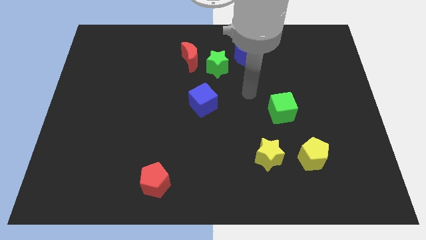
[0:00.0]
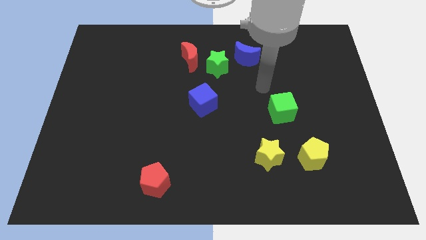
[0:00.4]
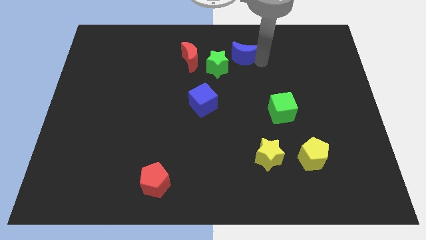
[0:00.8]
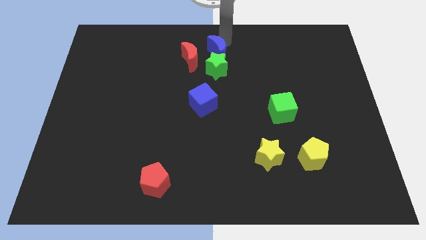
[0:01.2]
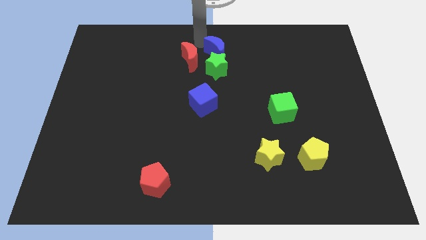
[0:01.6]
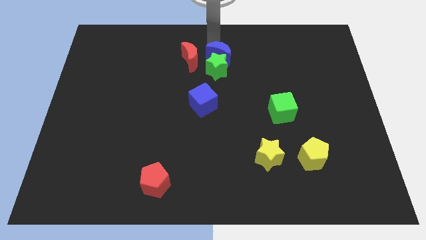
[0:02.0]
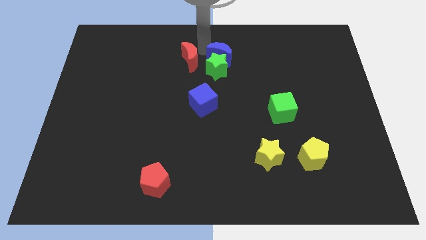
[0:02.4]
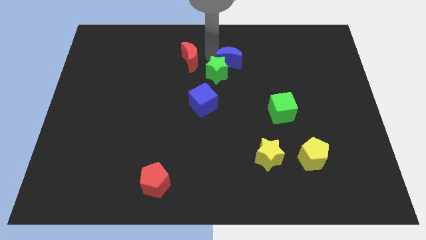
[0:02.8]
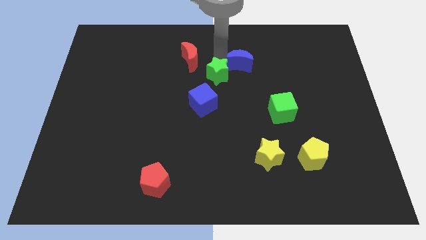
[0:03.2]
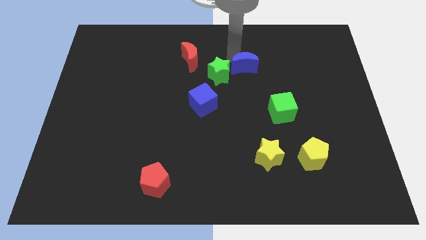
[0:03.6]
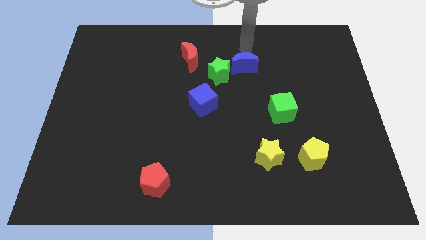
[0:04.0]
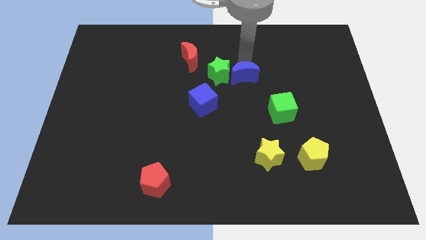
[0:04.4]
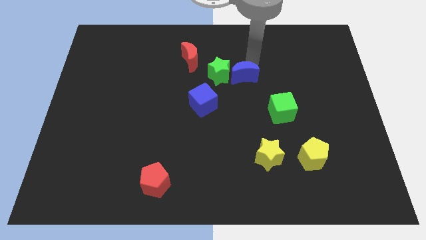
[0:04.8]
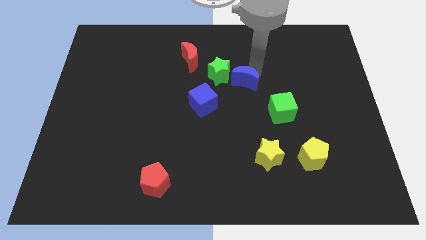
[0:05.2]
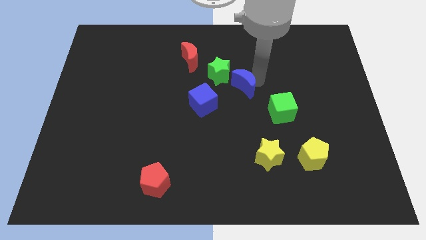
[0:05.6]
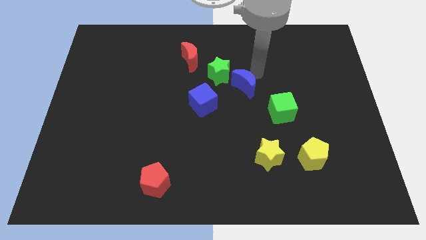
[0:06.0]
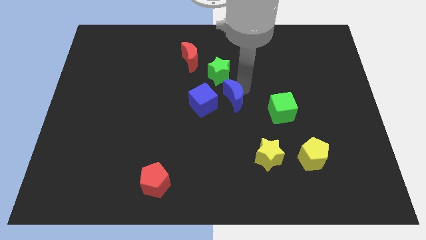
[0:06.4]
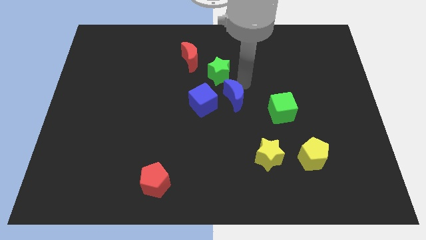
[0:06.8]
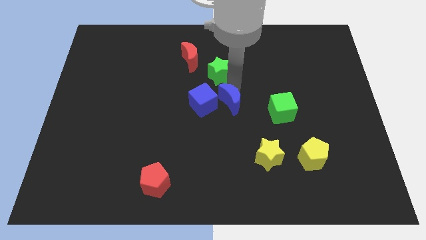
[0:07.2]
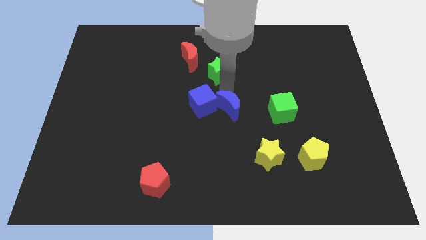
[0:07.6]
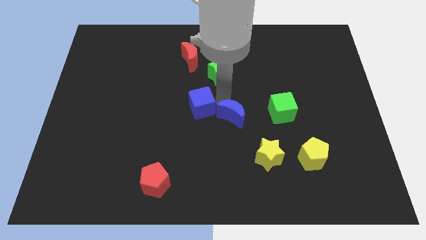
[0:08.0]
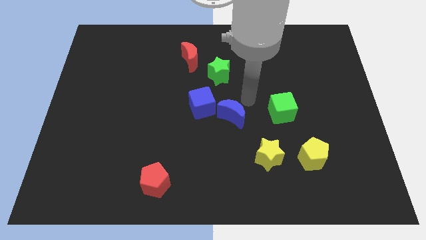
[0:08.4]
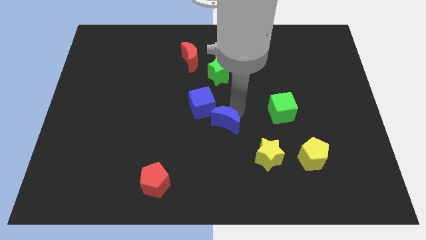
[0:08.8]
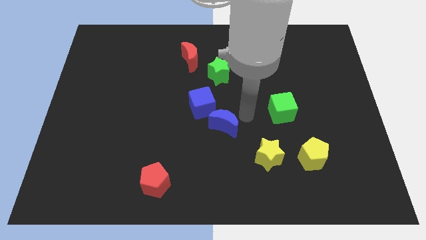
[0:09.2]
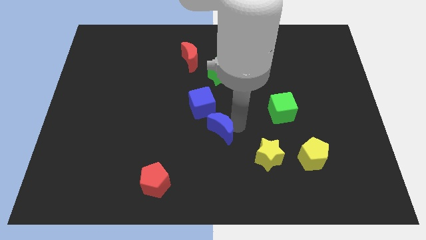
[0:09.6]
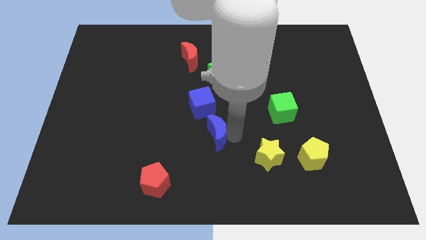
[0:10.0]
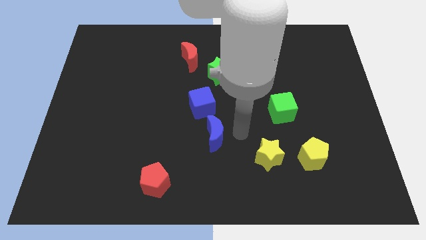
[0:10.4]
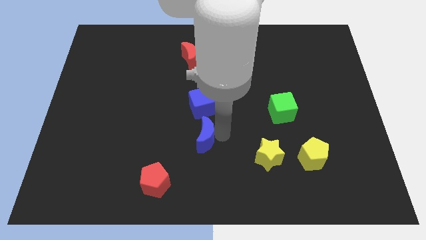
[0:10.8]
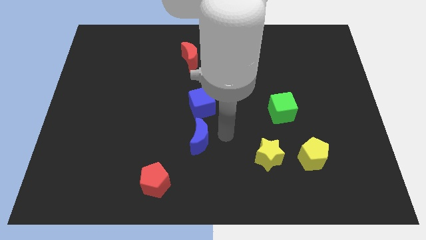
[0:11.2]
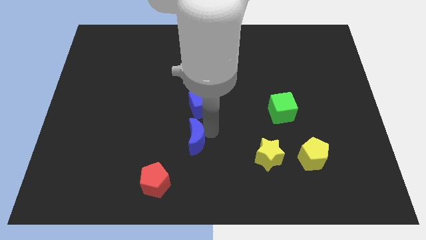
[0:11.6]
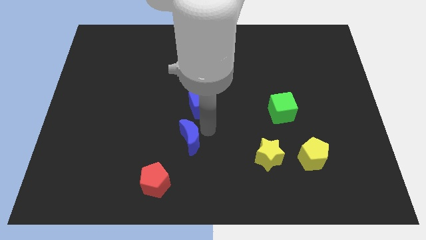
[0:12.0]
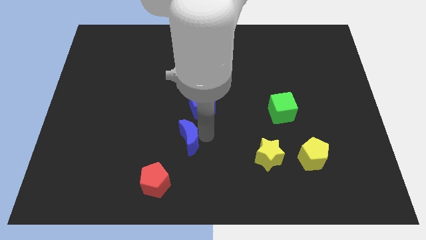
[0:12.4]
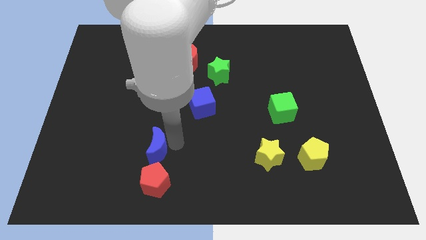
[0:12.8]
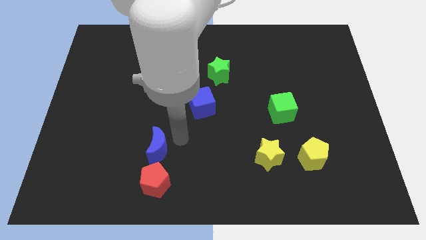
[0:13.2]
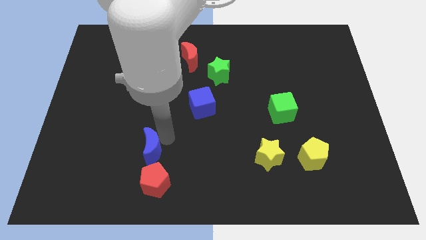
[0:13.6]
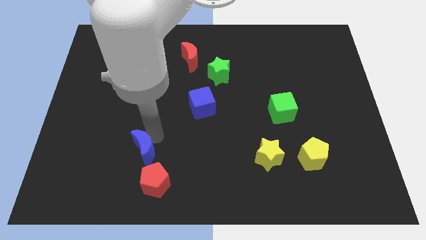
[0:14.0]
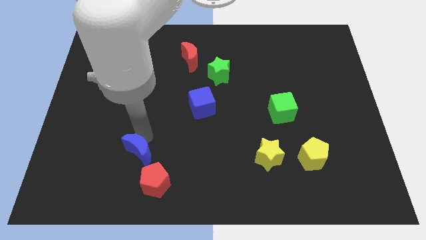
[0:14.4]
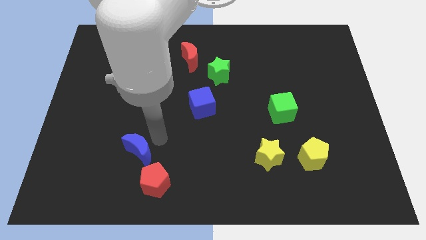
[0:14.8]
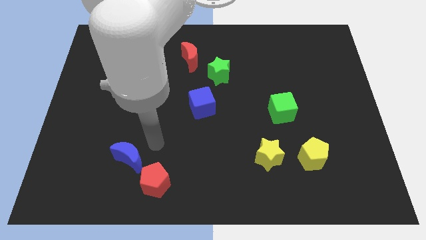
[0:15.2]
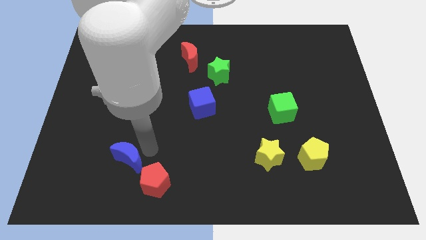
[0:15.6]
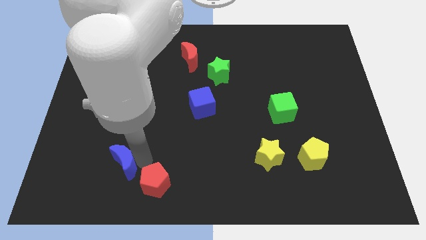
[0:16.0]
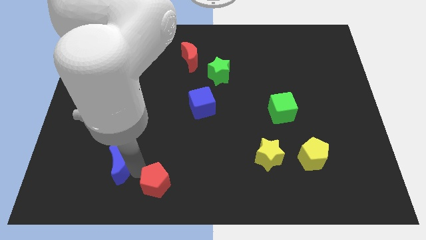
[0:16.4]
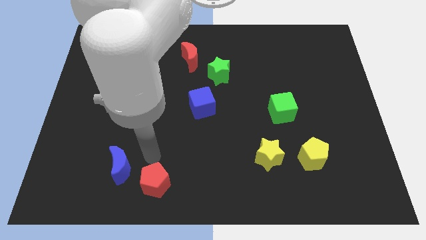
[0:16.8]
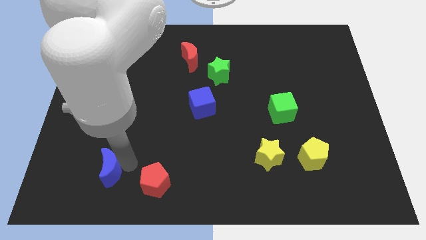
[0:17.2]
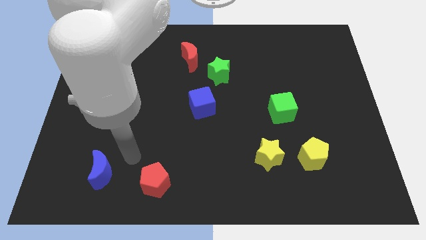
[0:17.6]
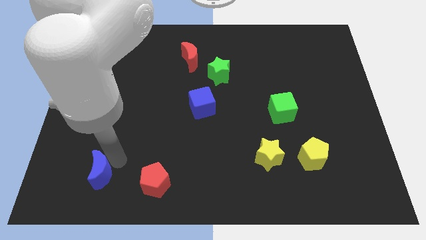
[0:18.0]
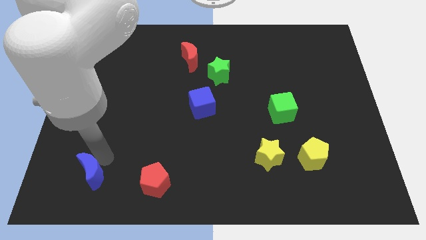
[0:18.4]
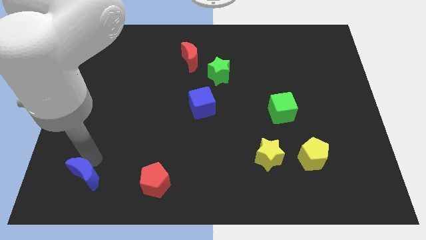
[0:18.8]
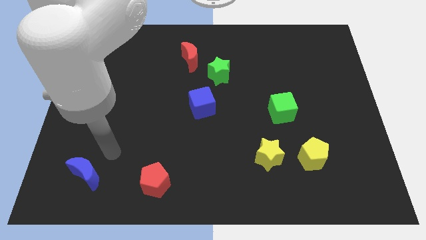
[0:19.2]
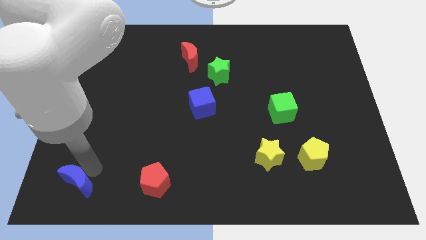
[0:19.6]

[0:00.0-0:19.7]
put the blue moon to the lower left corner

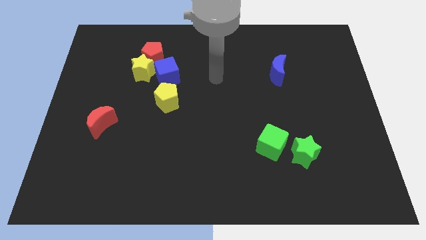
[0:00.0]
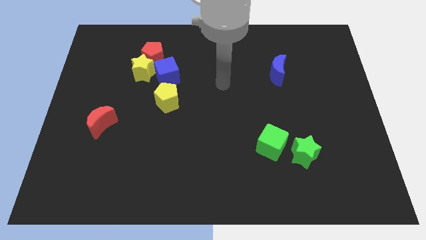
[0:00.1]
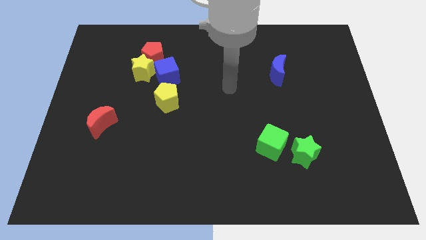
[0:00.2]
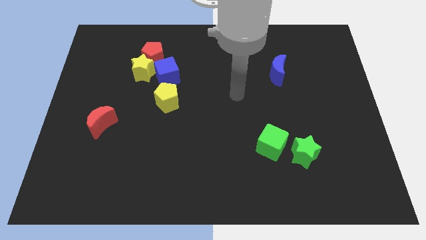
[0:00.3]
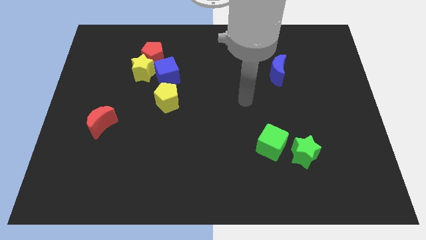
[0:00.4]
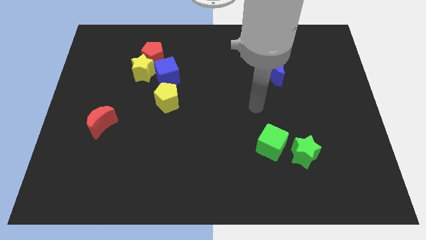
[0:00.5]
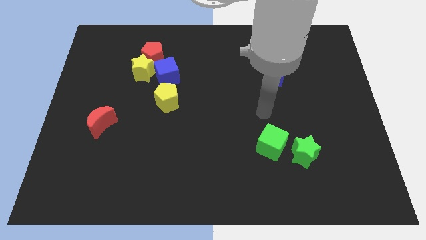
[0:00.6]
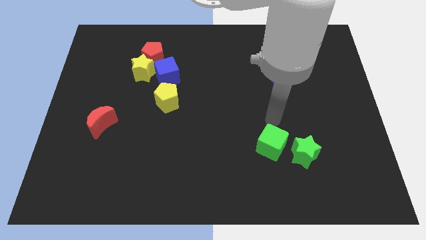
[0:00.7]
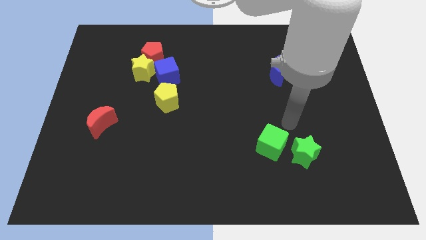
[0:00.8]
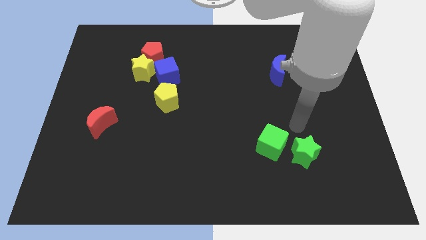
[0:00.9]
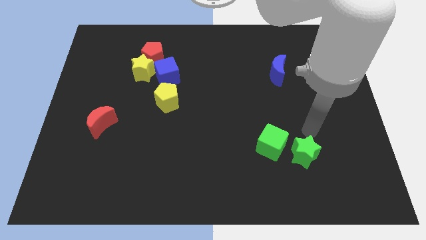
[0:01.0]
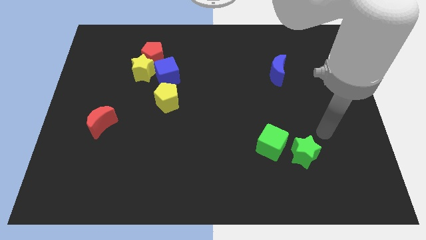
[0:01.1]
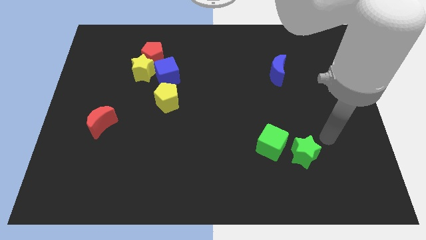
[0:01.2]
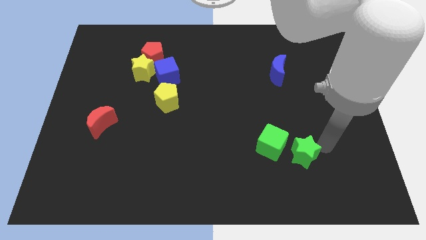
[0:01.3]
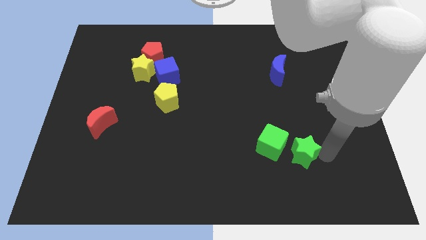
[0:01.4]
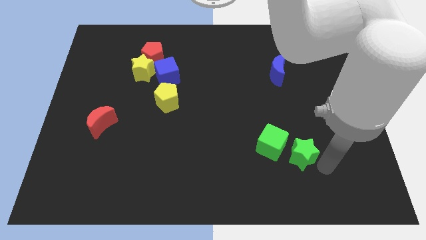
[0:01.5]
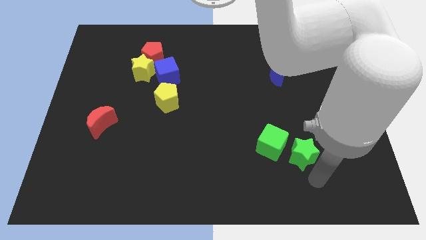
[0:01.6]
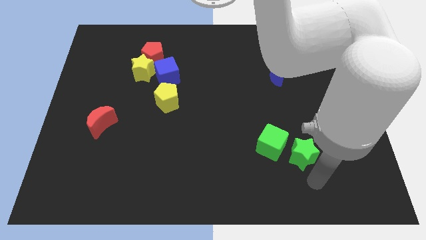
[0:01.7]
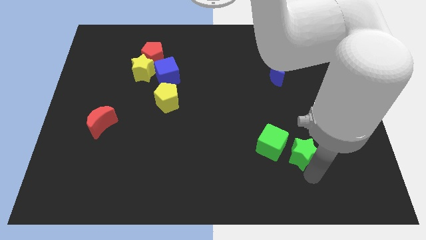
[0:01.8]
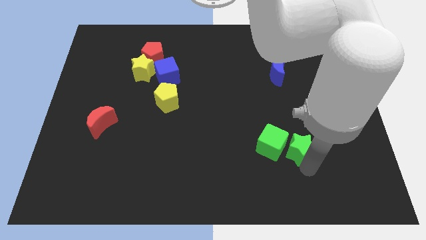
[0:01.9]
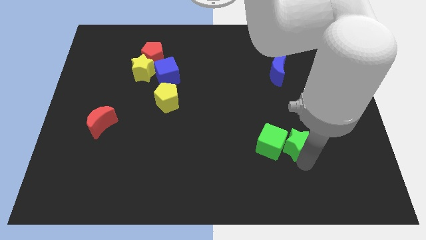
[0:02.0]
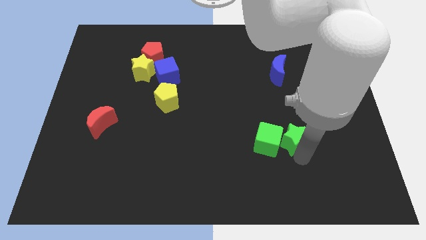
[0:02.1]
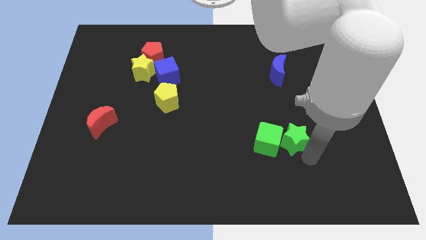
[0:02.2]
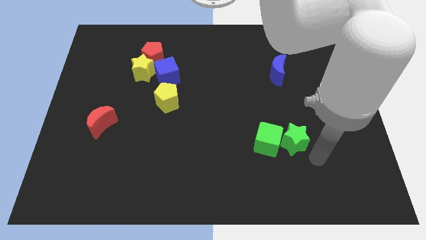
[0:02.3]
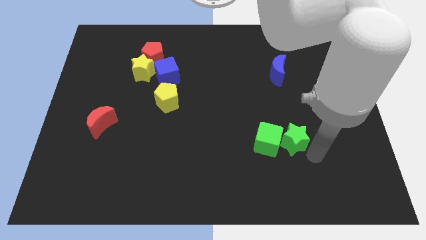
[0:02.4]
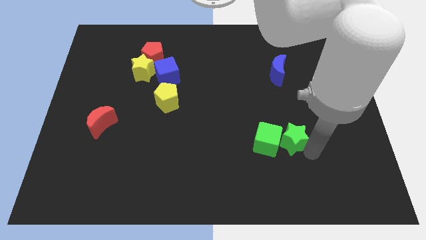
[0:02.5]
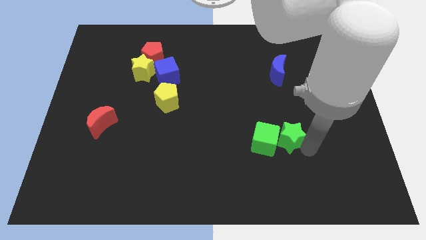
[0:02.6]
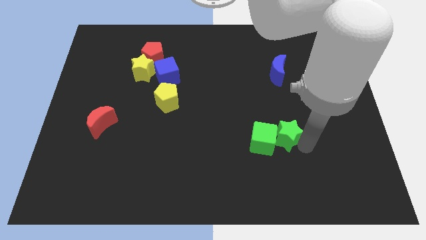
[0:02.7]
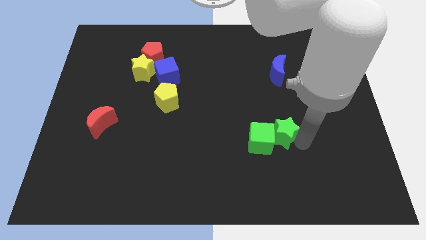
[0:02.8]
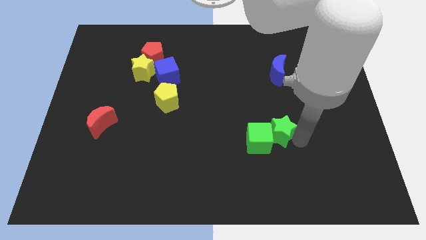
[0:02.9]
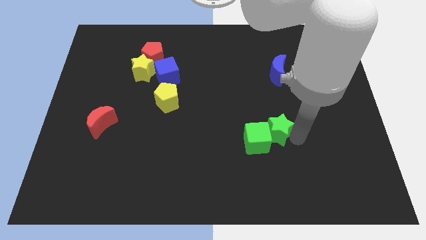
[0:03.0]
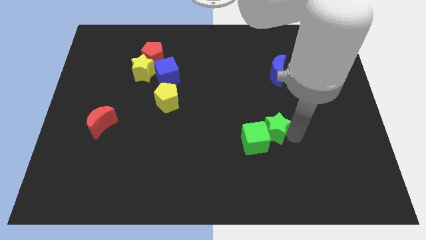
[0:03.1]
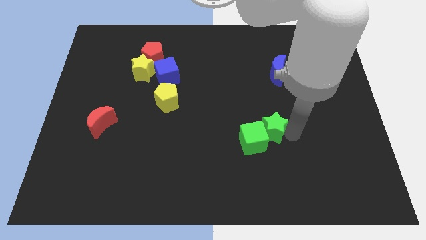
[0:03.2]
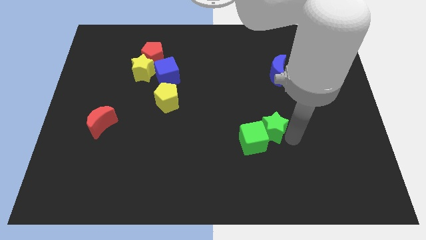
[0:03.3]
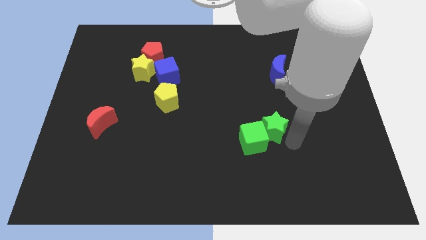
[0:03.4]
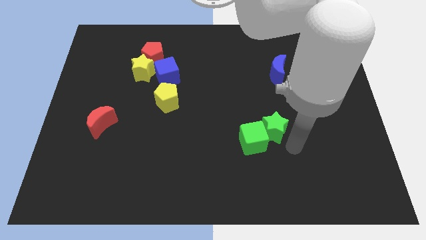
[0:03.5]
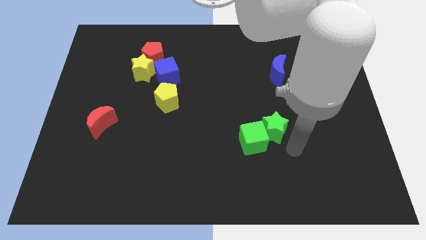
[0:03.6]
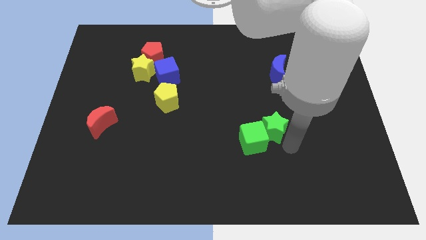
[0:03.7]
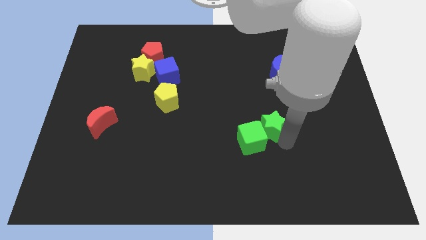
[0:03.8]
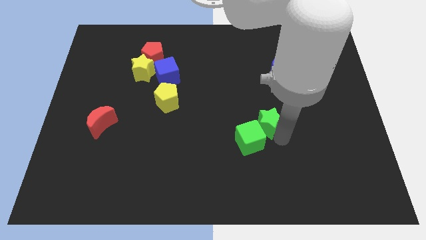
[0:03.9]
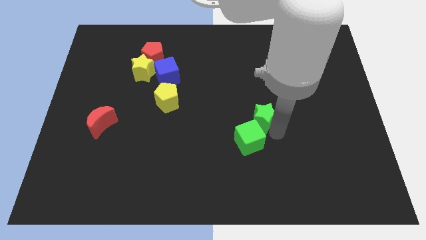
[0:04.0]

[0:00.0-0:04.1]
push the green star to the middle
